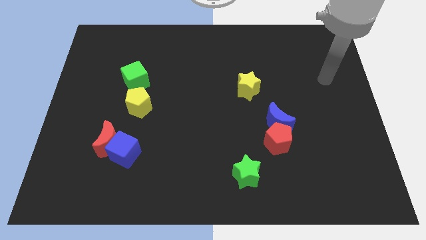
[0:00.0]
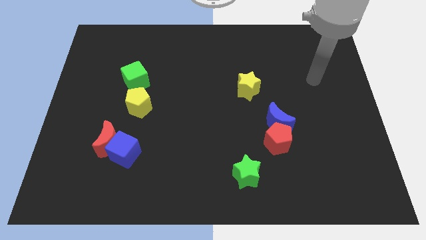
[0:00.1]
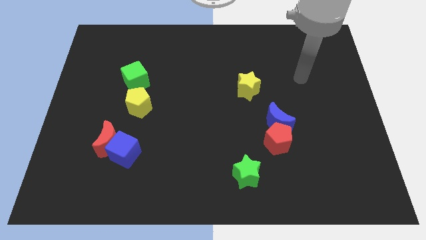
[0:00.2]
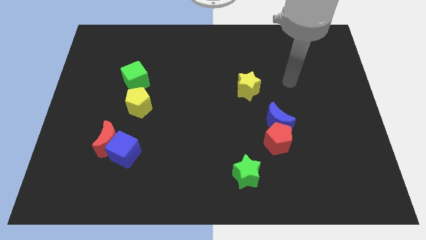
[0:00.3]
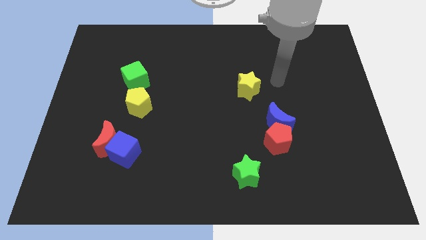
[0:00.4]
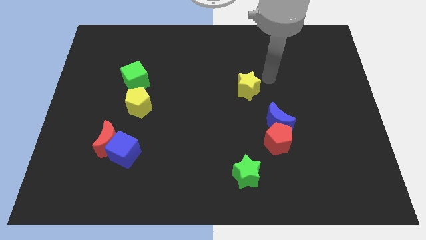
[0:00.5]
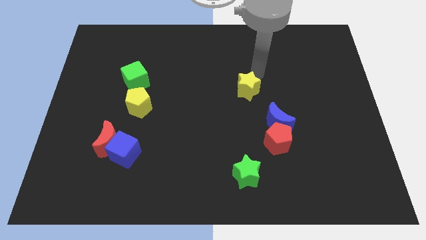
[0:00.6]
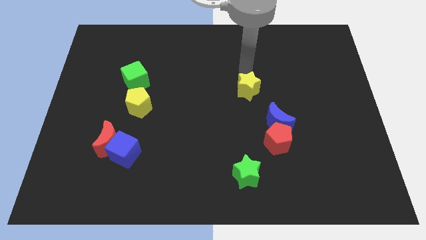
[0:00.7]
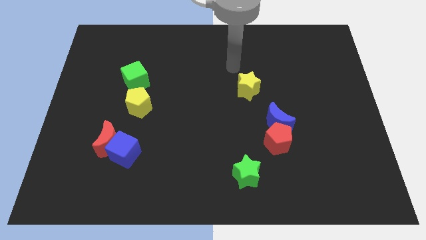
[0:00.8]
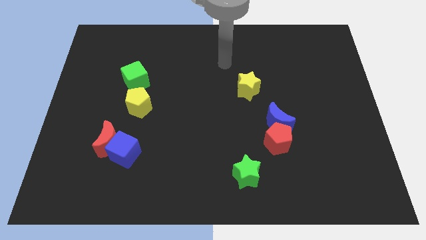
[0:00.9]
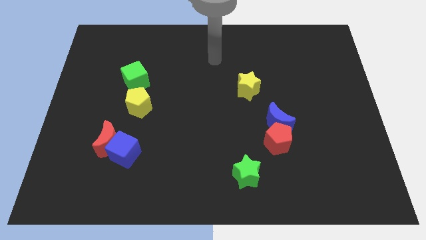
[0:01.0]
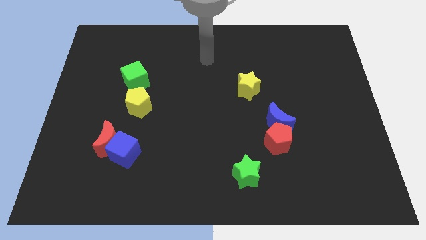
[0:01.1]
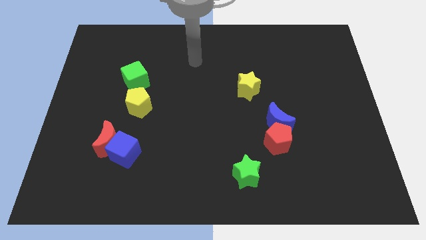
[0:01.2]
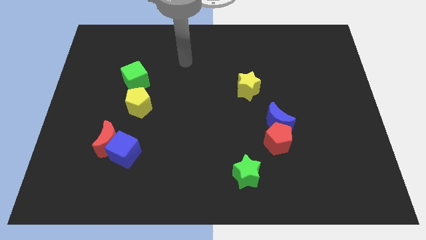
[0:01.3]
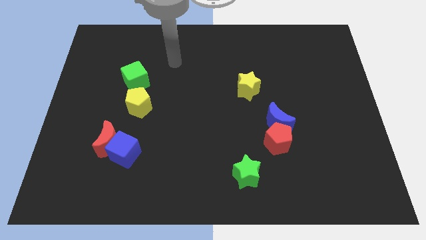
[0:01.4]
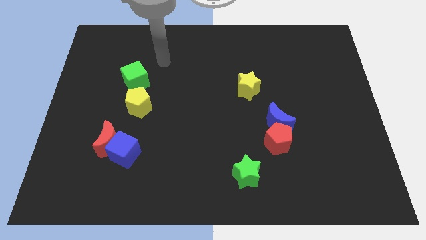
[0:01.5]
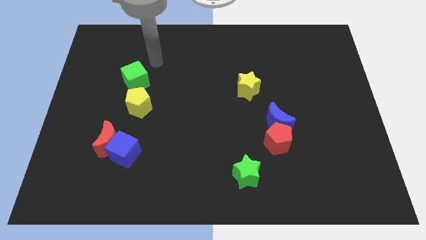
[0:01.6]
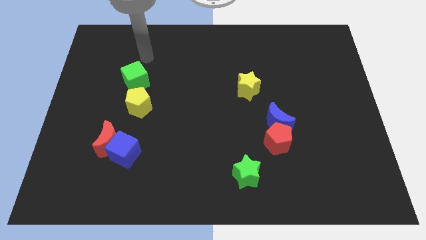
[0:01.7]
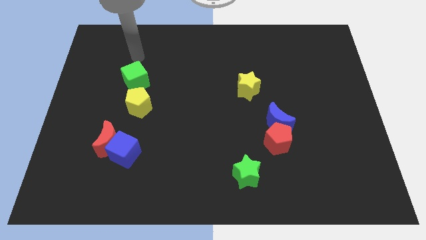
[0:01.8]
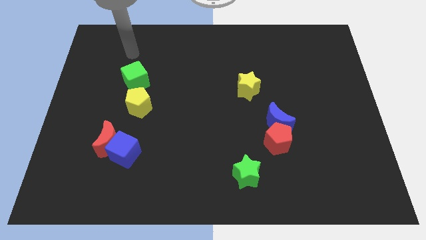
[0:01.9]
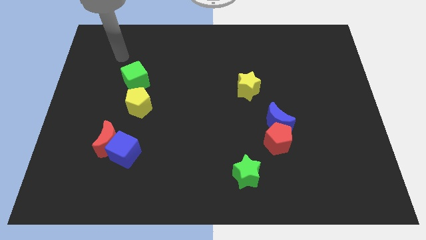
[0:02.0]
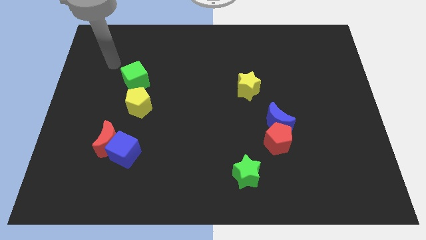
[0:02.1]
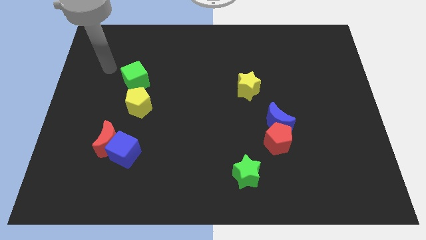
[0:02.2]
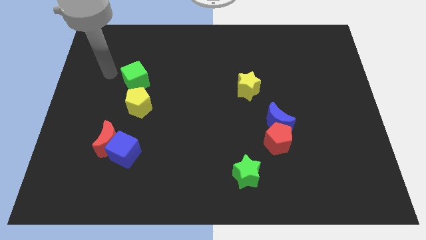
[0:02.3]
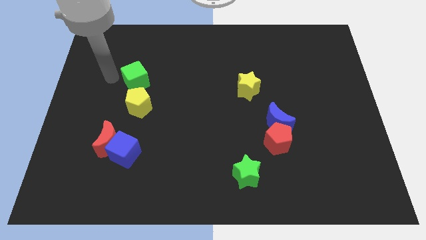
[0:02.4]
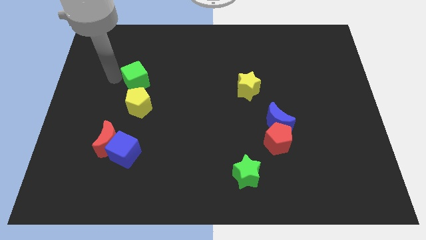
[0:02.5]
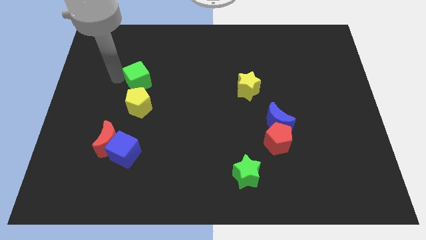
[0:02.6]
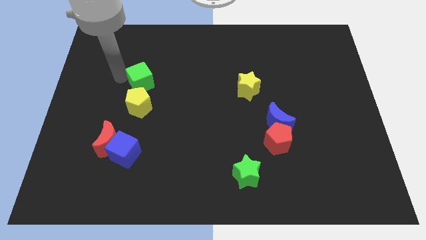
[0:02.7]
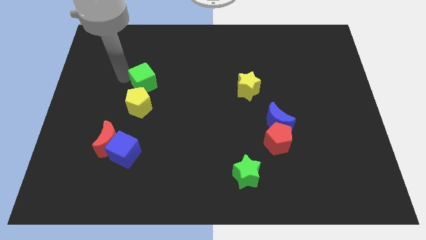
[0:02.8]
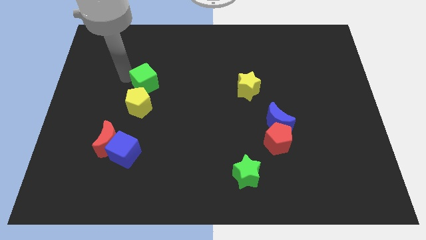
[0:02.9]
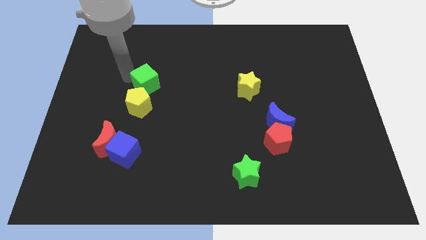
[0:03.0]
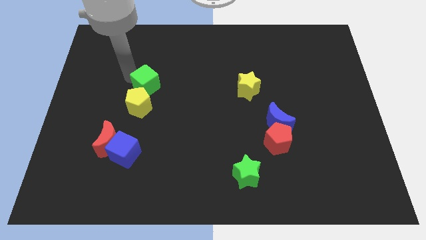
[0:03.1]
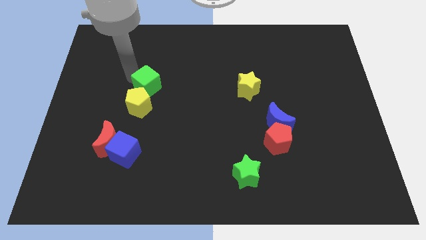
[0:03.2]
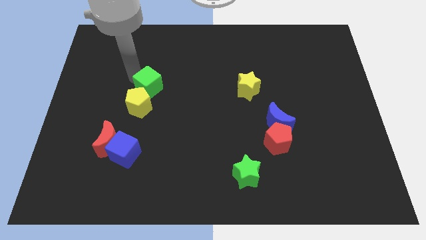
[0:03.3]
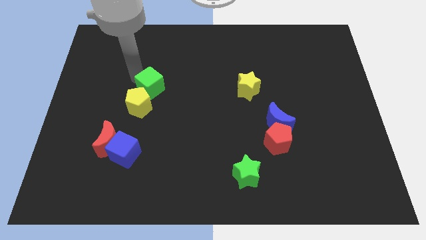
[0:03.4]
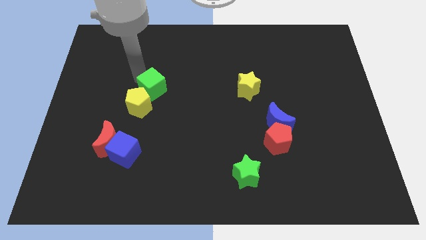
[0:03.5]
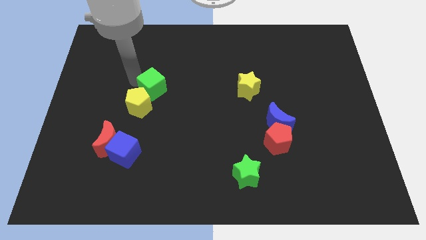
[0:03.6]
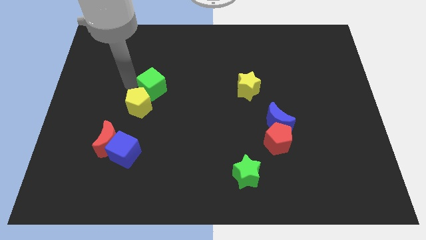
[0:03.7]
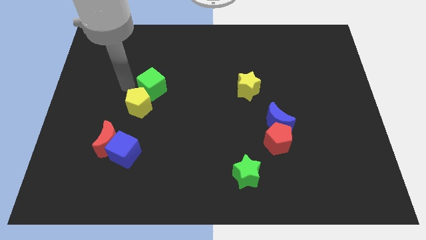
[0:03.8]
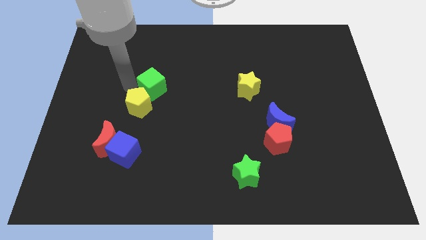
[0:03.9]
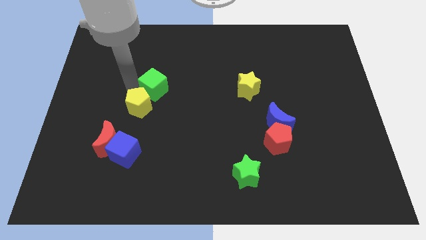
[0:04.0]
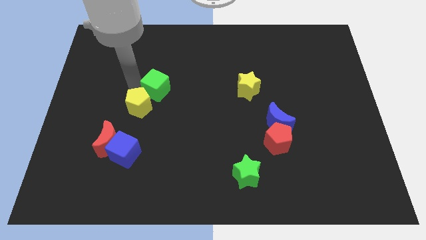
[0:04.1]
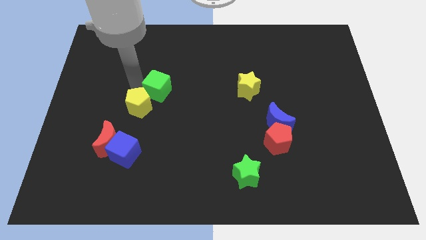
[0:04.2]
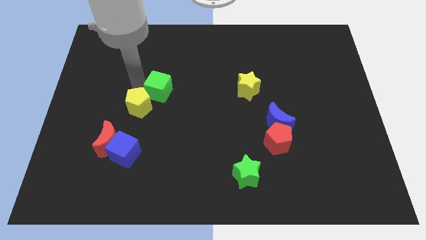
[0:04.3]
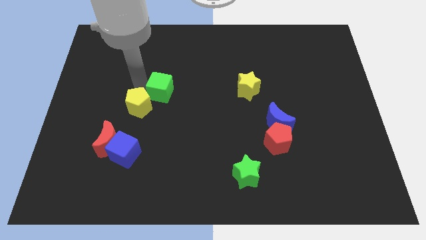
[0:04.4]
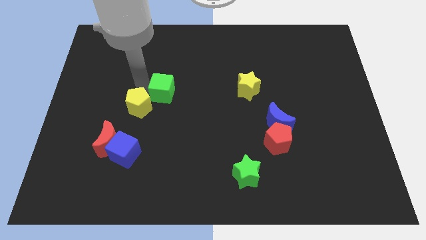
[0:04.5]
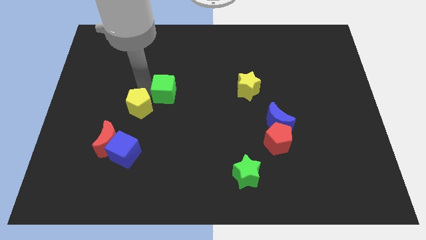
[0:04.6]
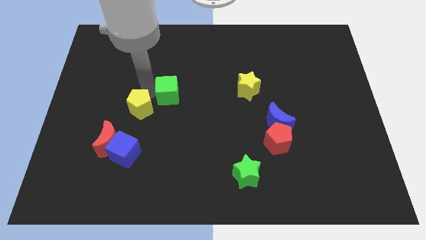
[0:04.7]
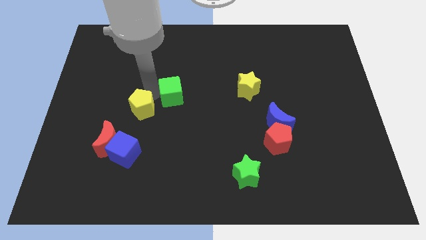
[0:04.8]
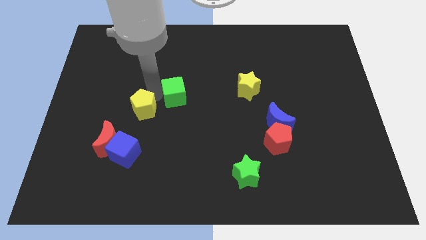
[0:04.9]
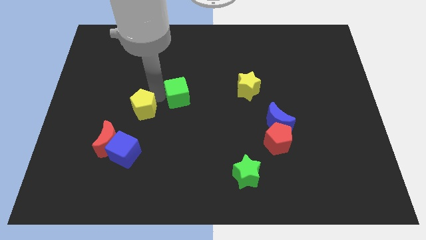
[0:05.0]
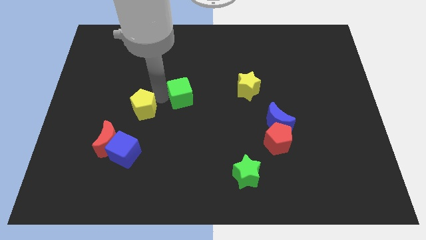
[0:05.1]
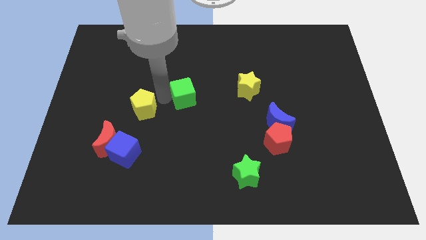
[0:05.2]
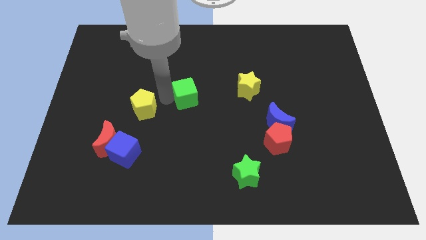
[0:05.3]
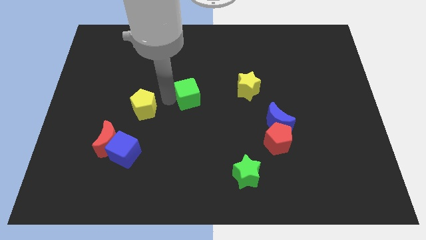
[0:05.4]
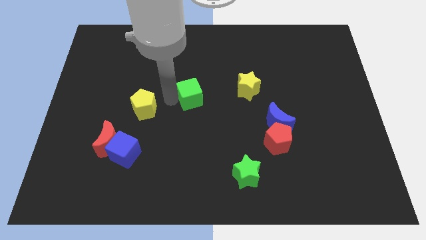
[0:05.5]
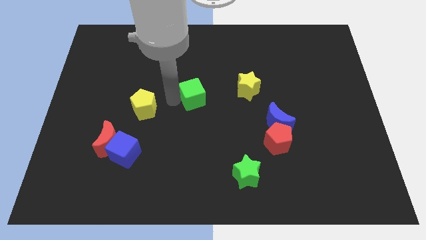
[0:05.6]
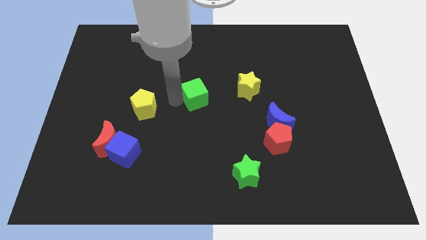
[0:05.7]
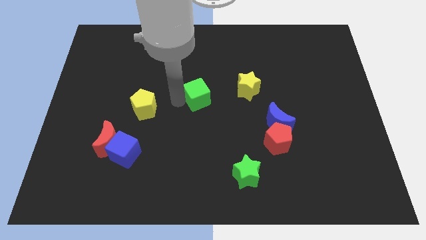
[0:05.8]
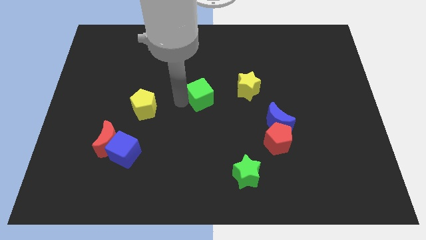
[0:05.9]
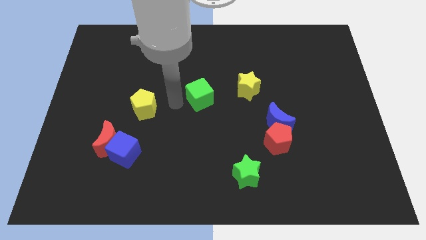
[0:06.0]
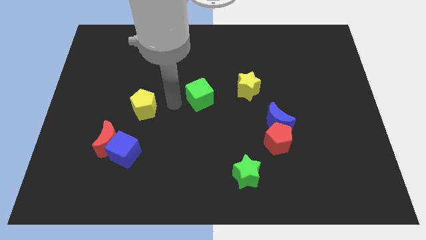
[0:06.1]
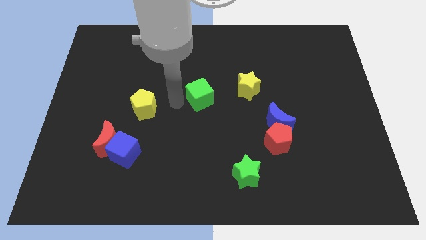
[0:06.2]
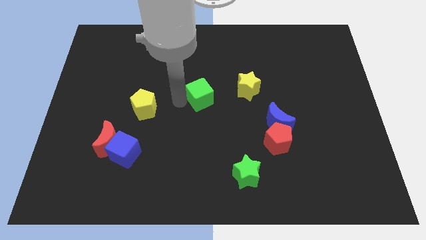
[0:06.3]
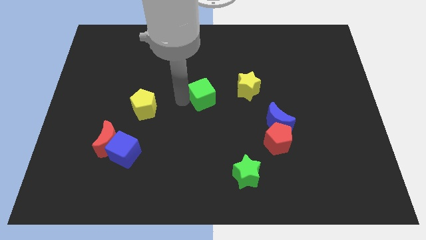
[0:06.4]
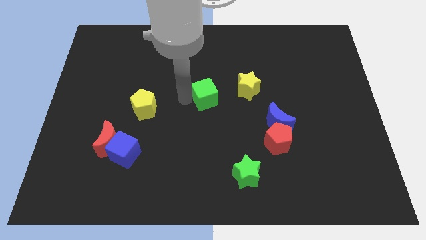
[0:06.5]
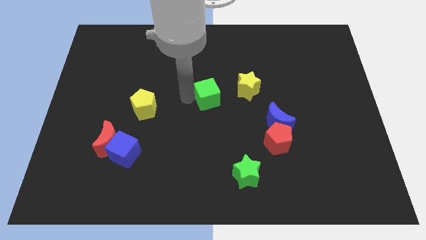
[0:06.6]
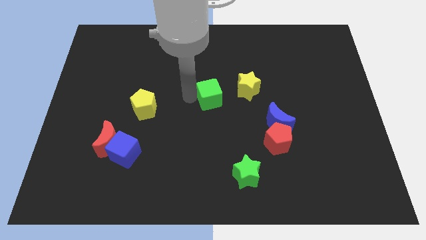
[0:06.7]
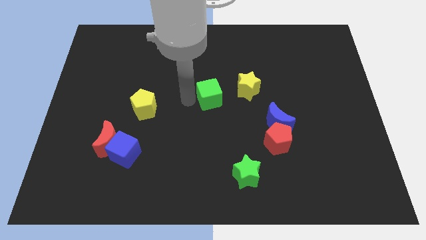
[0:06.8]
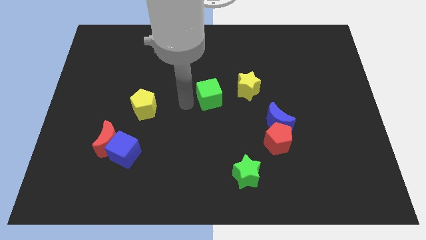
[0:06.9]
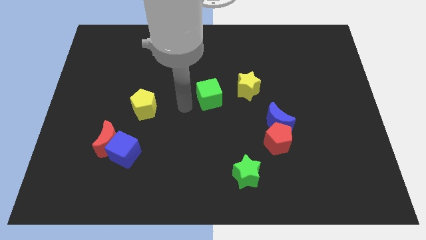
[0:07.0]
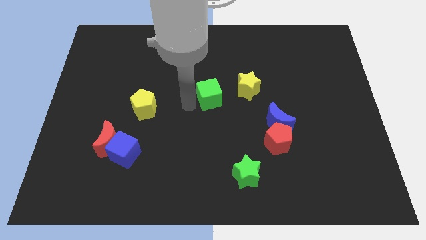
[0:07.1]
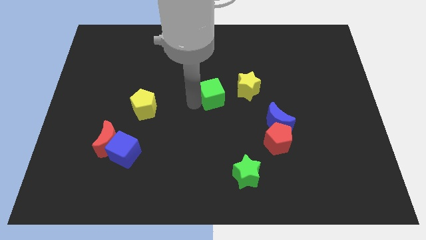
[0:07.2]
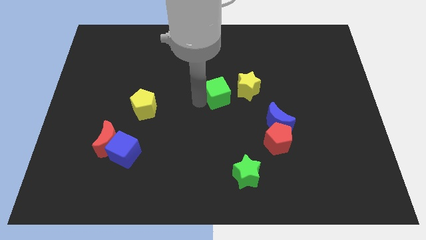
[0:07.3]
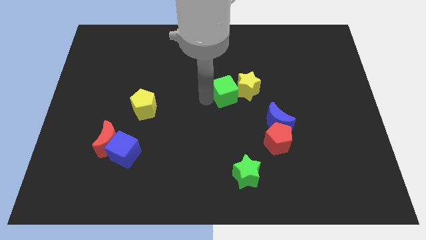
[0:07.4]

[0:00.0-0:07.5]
put the green cube close to the yellow star
